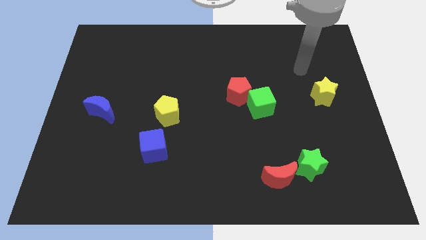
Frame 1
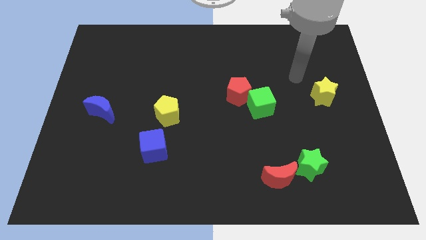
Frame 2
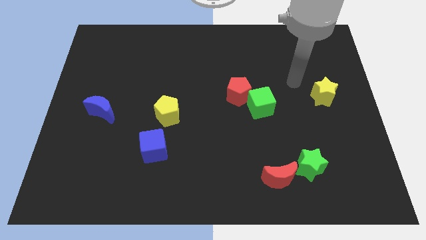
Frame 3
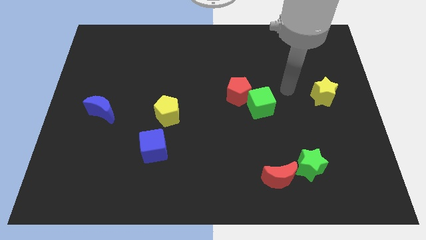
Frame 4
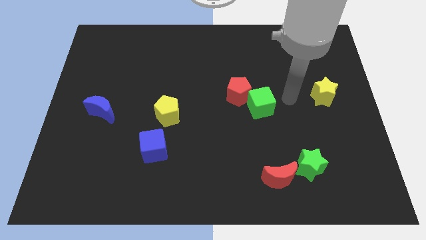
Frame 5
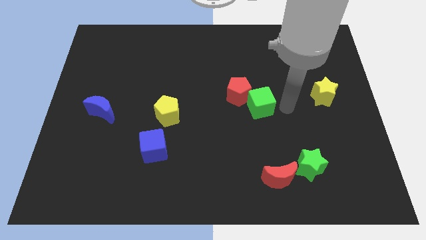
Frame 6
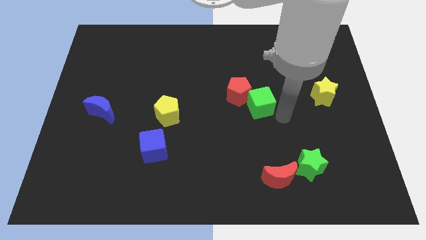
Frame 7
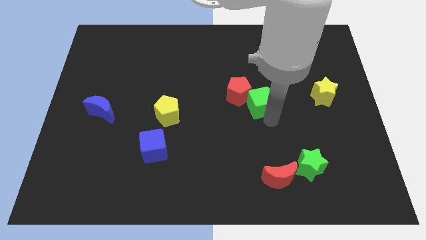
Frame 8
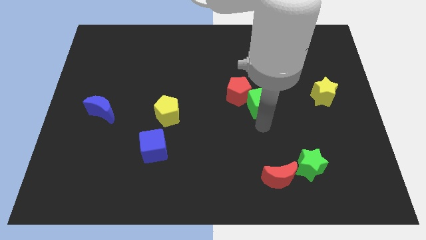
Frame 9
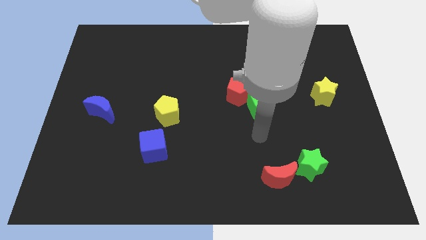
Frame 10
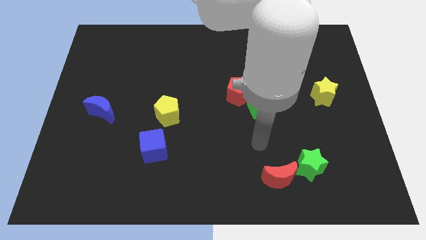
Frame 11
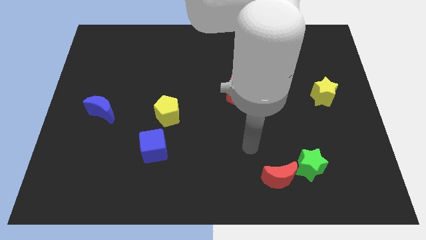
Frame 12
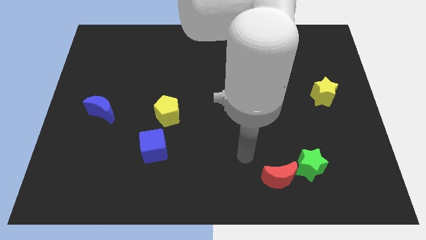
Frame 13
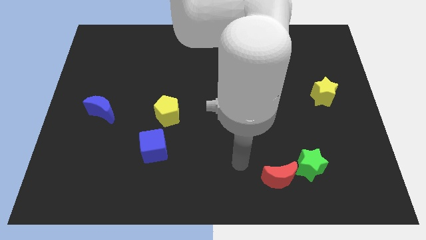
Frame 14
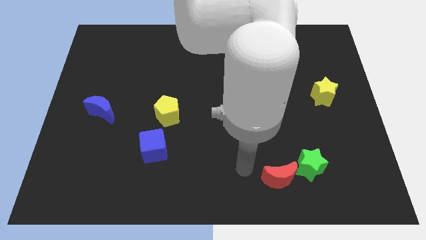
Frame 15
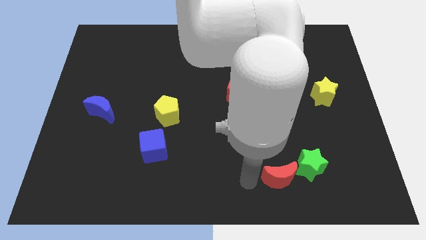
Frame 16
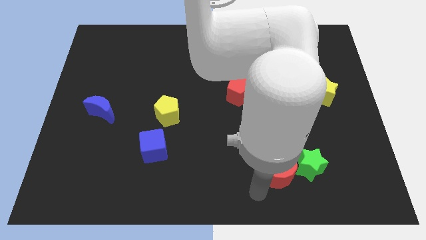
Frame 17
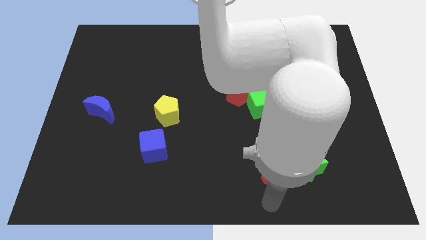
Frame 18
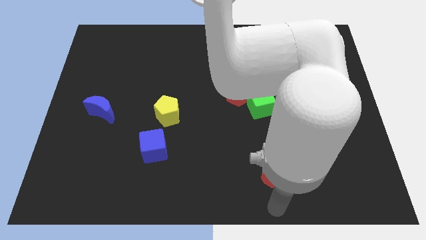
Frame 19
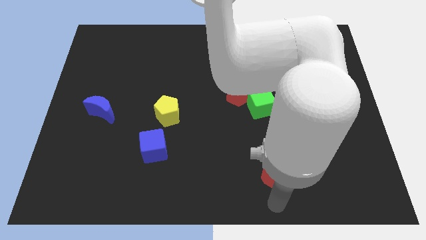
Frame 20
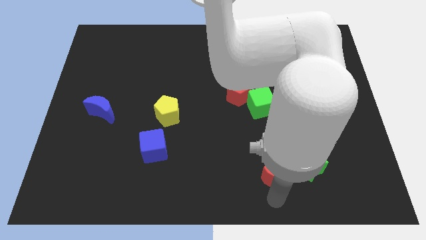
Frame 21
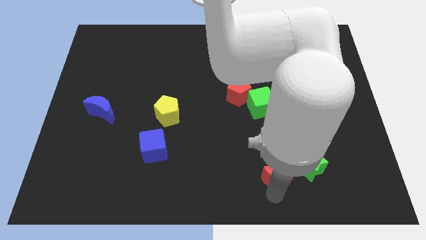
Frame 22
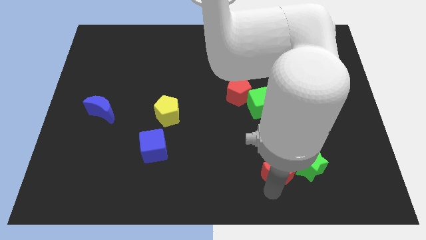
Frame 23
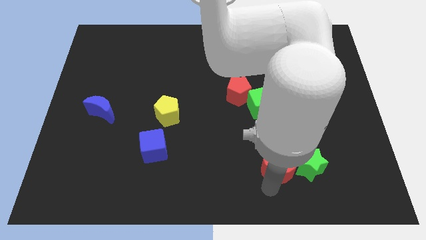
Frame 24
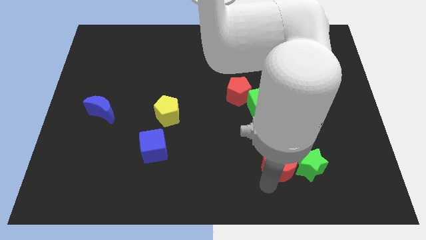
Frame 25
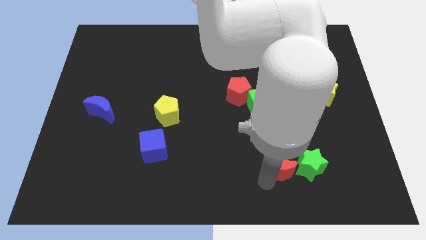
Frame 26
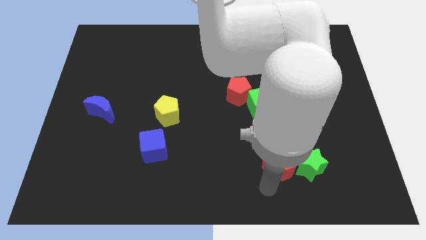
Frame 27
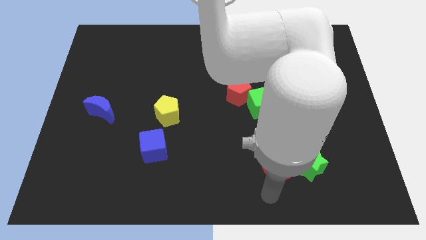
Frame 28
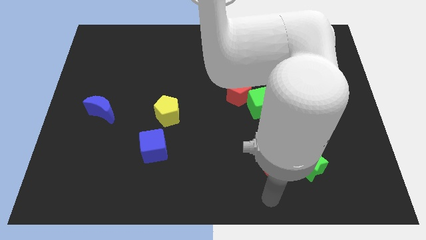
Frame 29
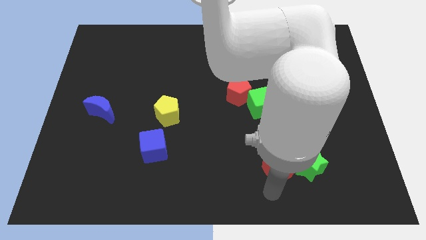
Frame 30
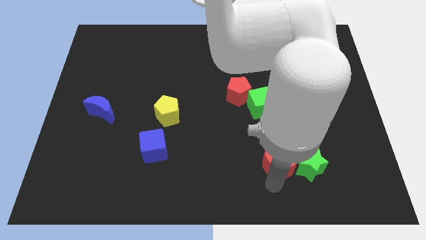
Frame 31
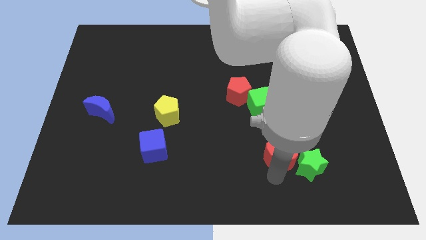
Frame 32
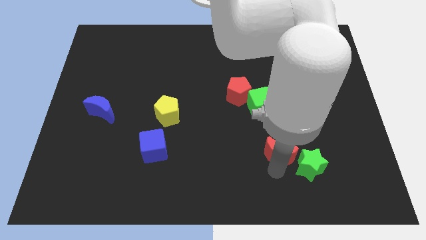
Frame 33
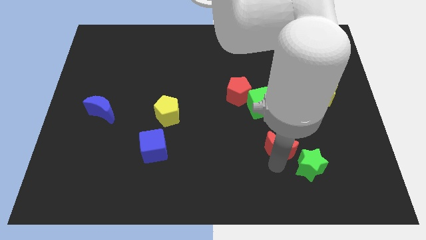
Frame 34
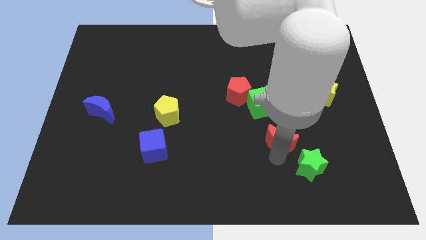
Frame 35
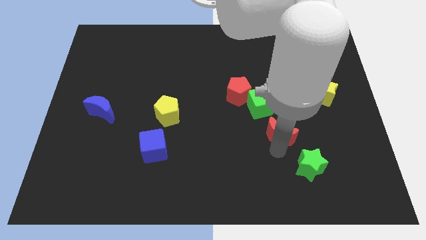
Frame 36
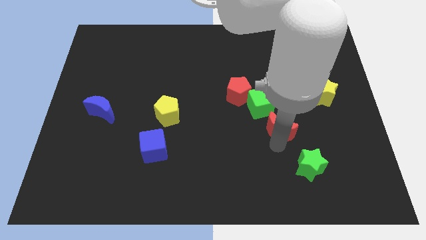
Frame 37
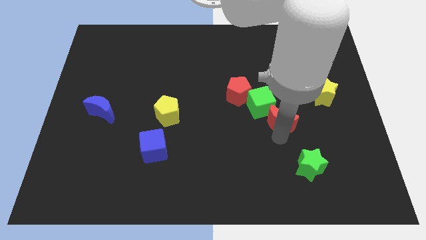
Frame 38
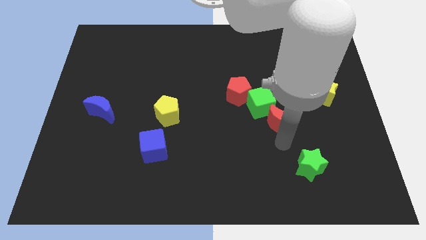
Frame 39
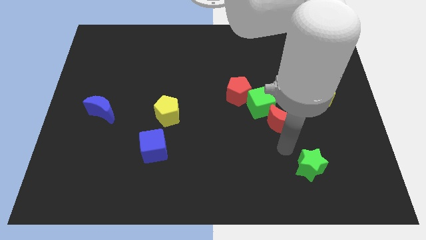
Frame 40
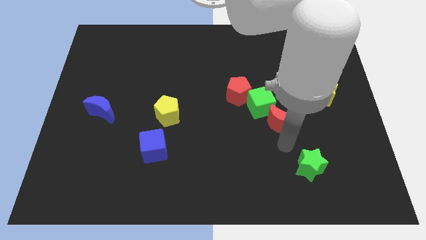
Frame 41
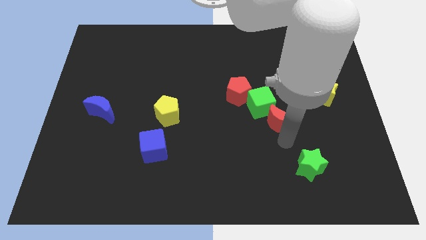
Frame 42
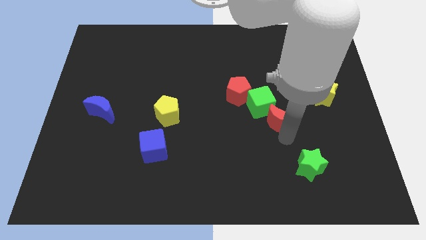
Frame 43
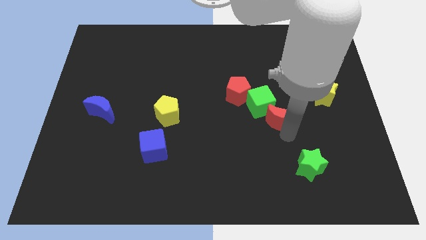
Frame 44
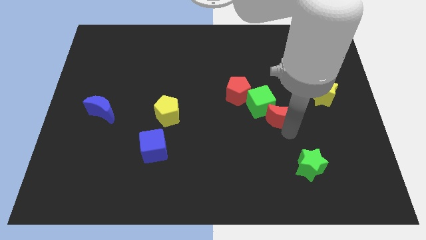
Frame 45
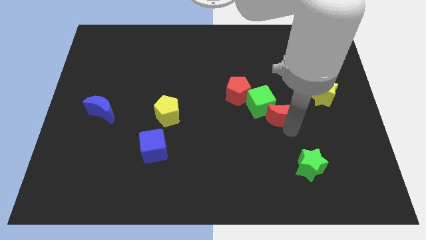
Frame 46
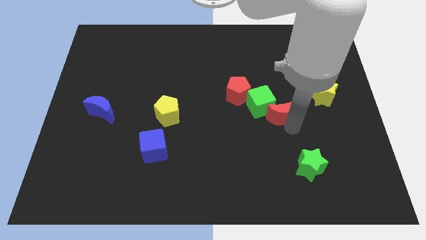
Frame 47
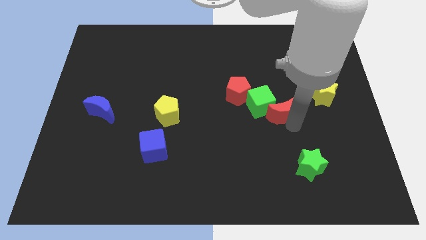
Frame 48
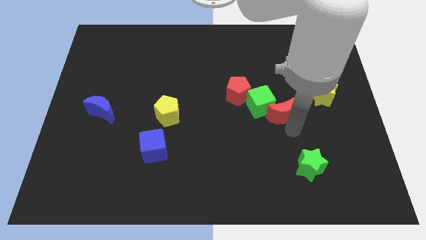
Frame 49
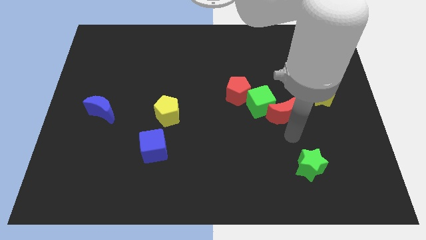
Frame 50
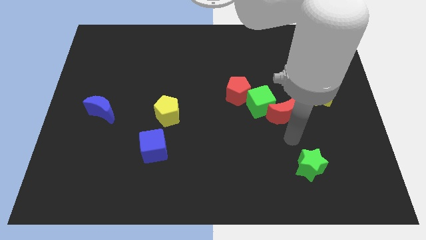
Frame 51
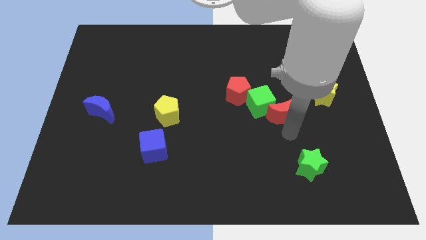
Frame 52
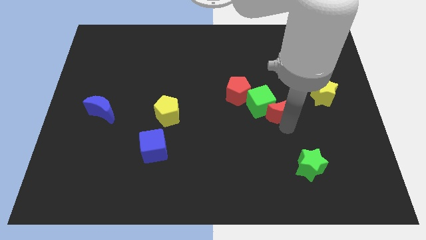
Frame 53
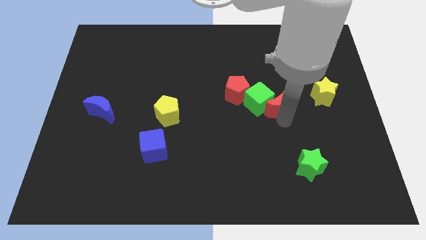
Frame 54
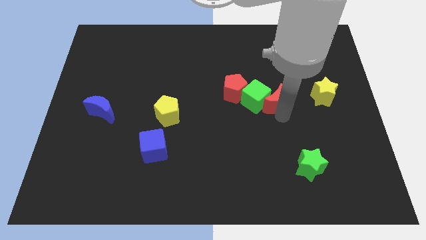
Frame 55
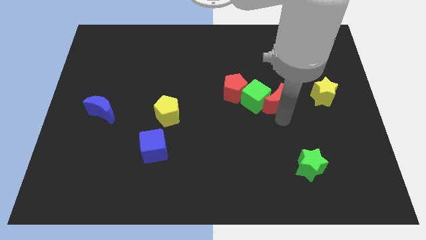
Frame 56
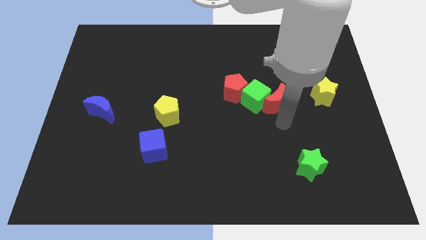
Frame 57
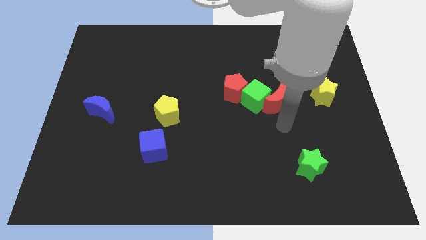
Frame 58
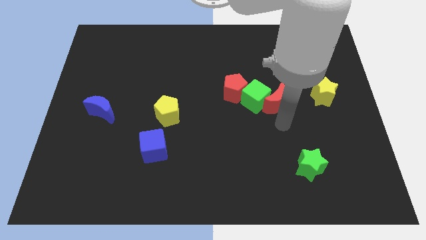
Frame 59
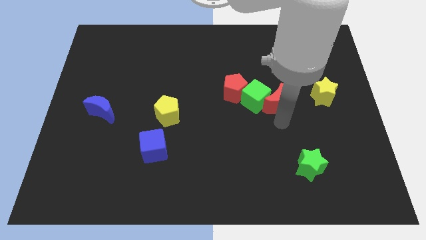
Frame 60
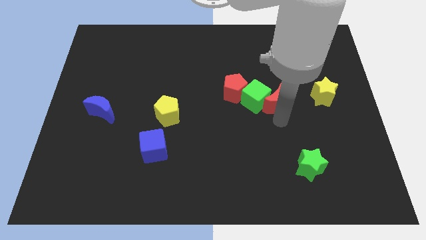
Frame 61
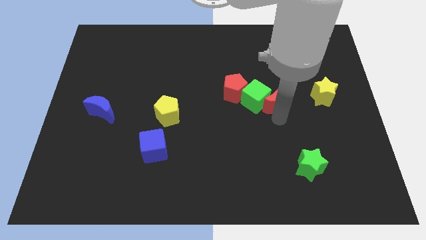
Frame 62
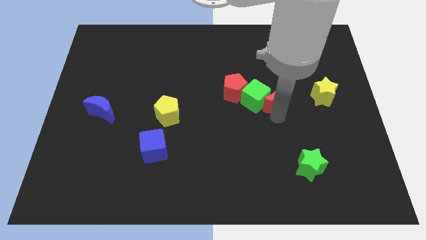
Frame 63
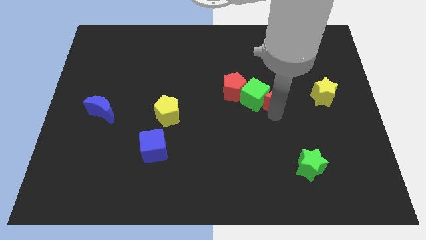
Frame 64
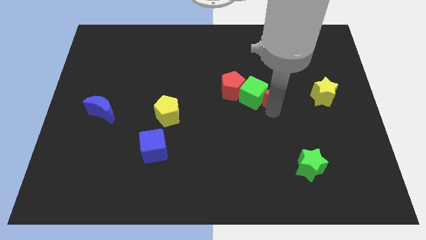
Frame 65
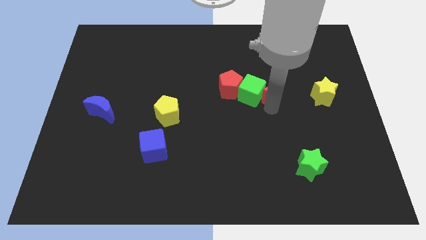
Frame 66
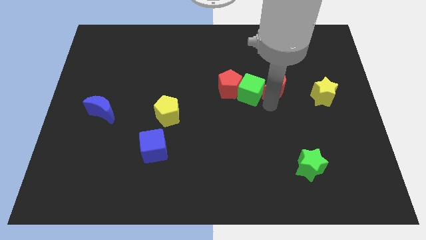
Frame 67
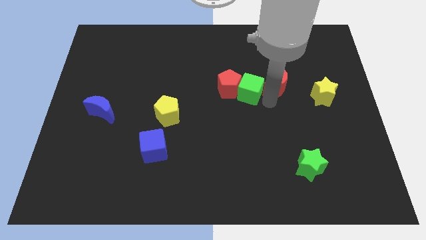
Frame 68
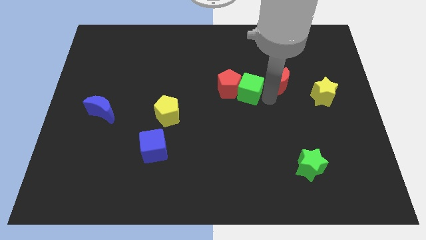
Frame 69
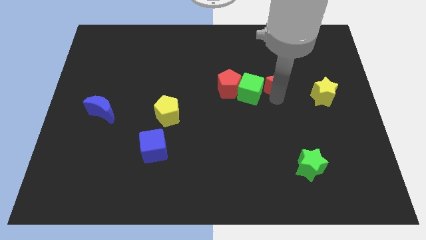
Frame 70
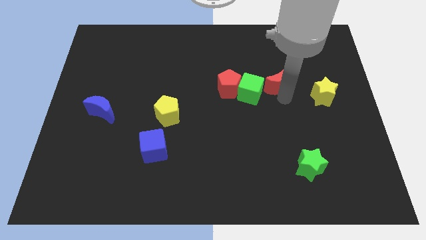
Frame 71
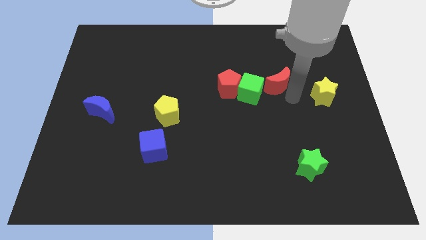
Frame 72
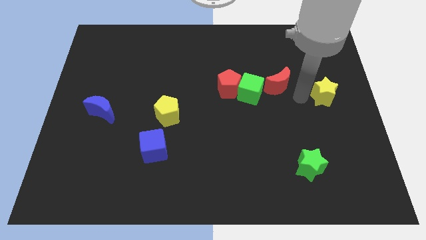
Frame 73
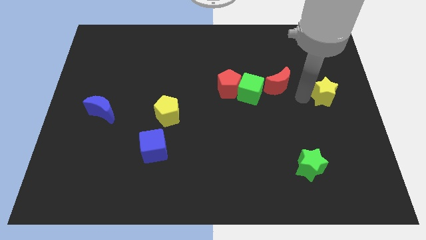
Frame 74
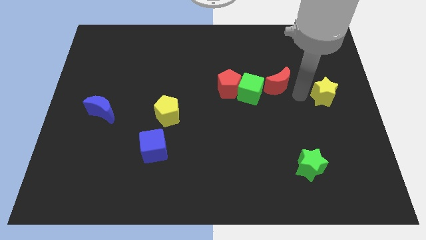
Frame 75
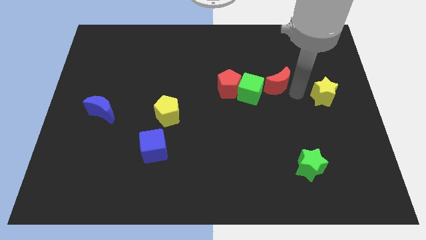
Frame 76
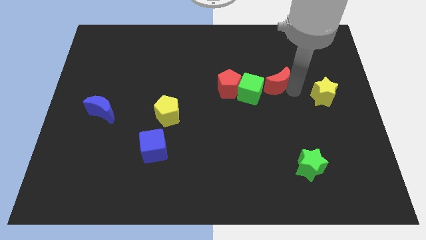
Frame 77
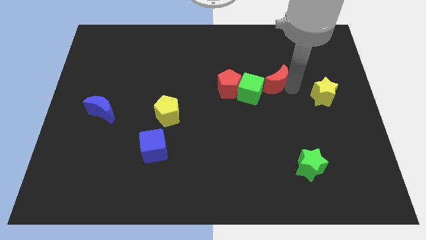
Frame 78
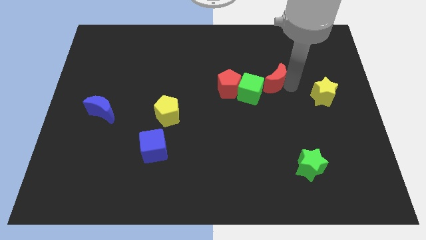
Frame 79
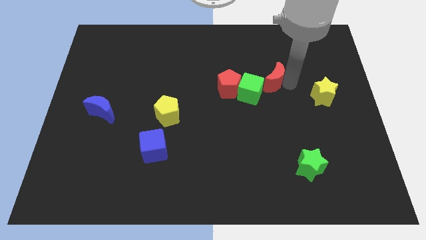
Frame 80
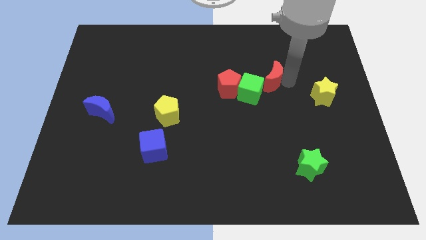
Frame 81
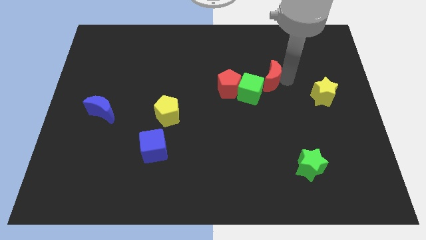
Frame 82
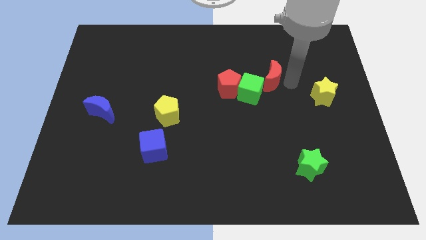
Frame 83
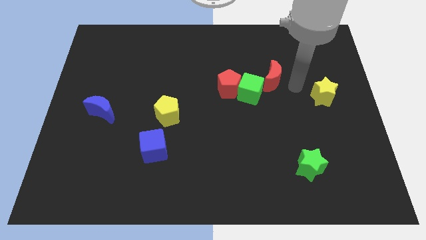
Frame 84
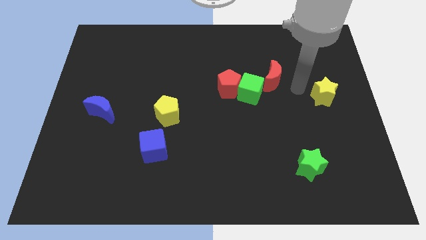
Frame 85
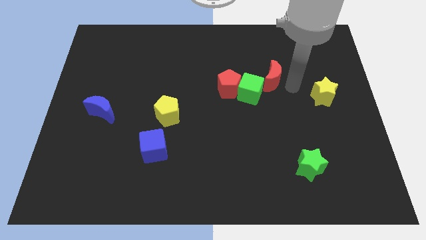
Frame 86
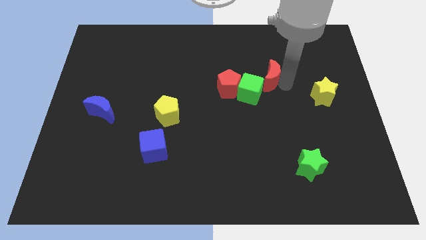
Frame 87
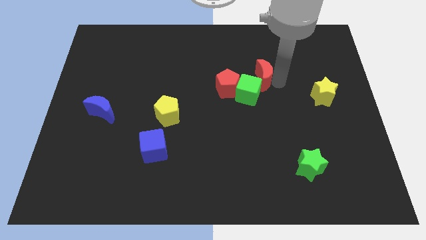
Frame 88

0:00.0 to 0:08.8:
slide the red moon to the top right side of the red pentagon
